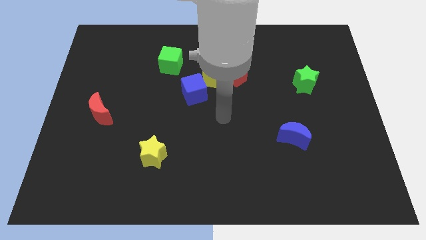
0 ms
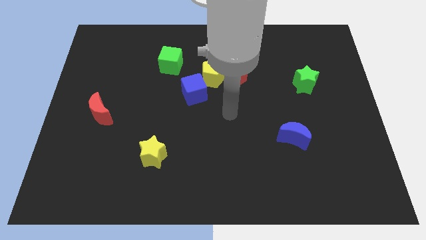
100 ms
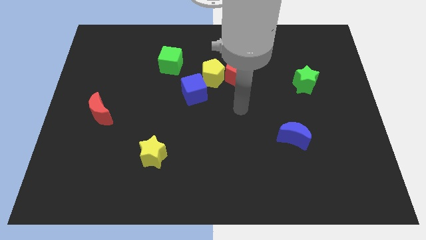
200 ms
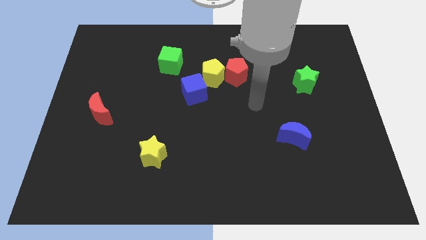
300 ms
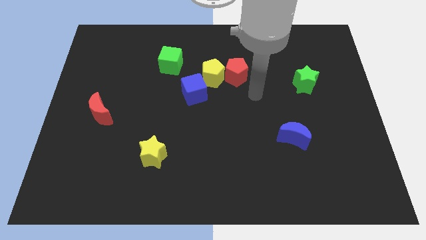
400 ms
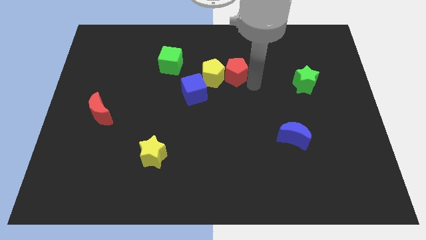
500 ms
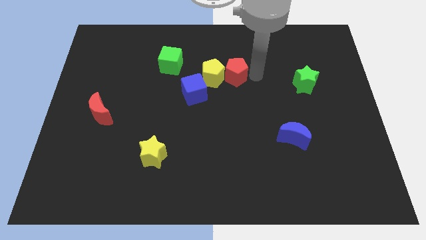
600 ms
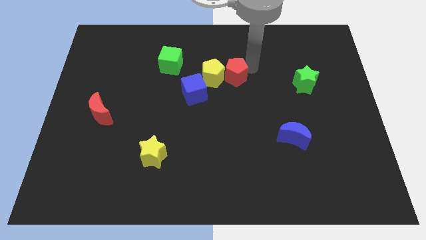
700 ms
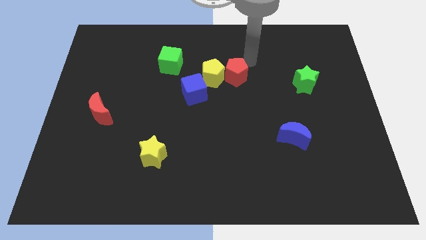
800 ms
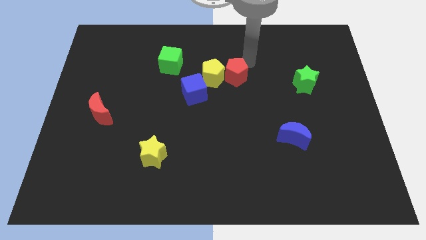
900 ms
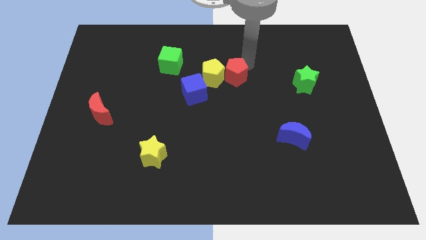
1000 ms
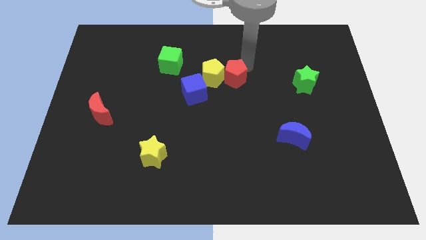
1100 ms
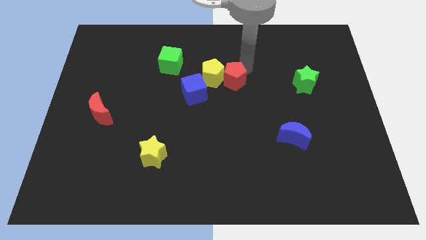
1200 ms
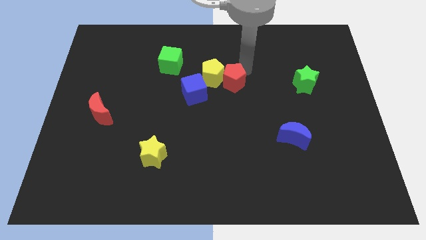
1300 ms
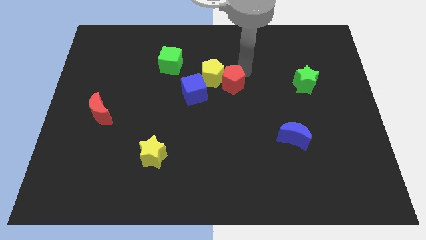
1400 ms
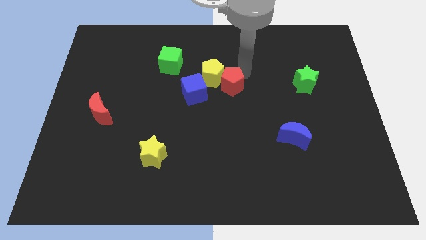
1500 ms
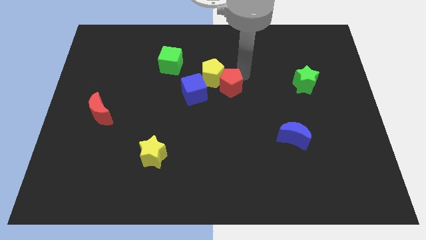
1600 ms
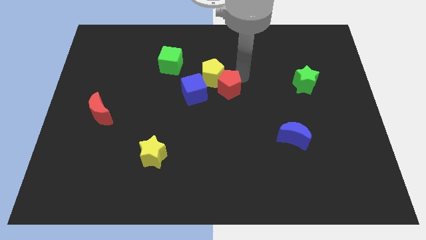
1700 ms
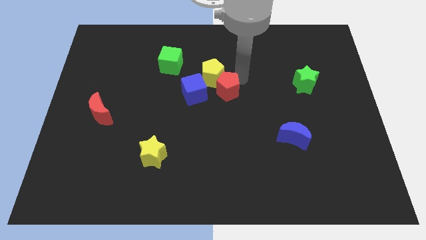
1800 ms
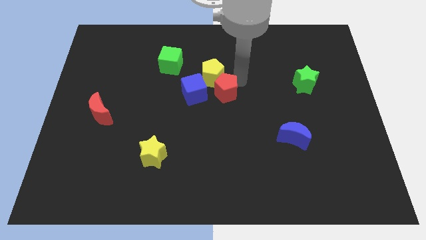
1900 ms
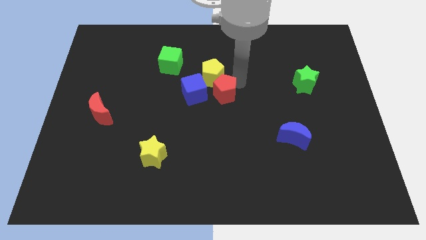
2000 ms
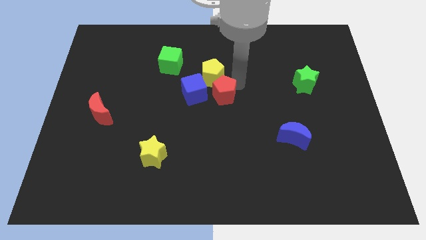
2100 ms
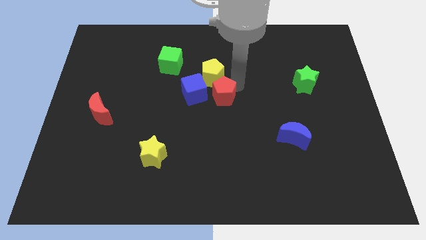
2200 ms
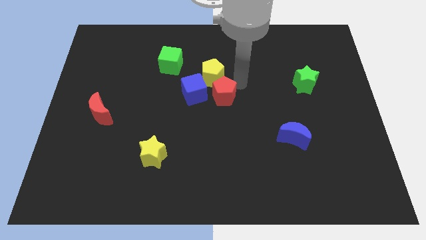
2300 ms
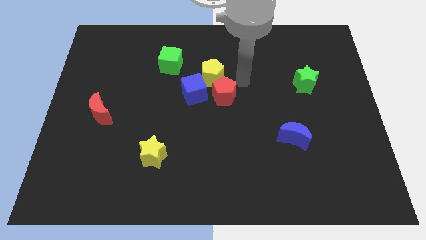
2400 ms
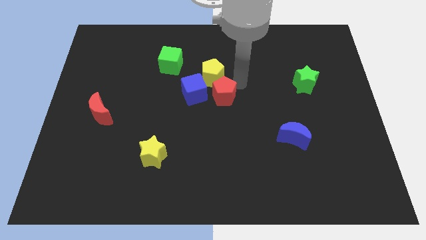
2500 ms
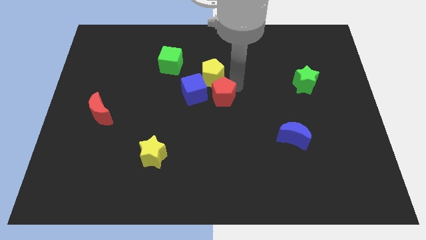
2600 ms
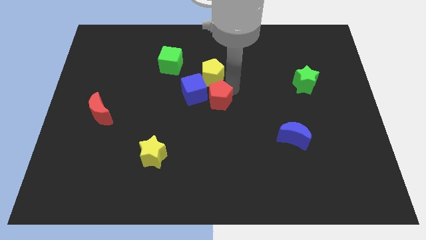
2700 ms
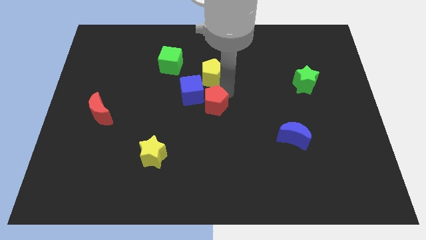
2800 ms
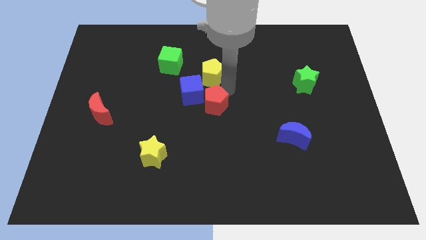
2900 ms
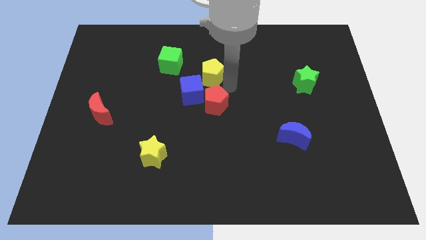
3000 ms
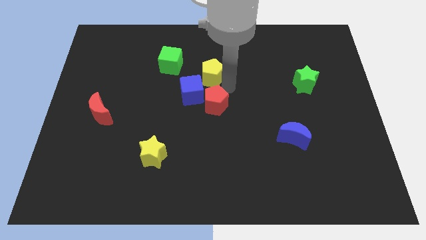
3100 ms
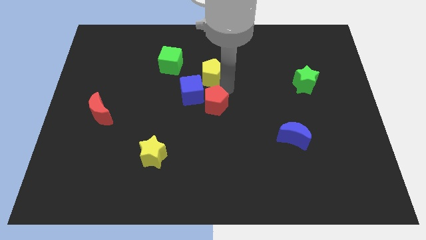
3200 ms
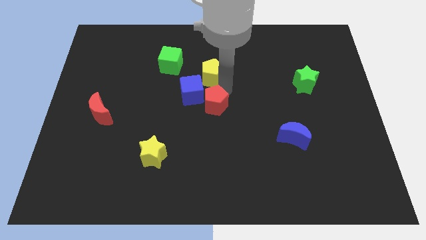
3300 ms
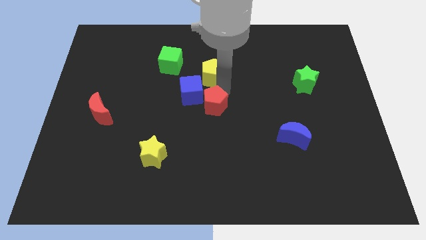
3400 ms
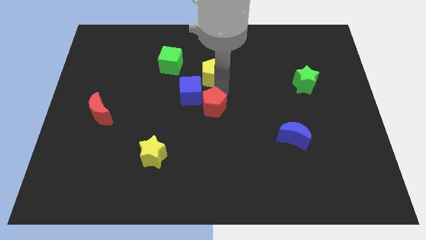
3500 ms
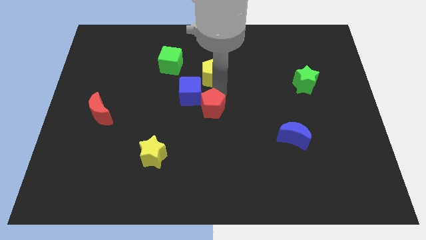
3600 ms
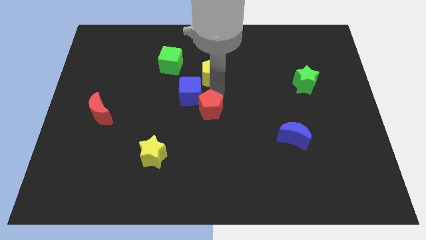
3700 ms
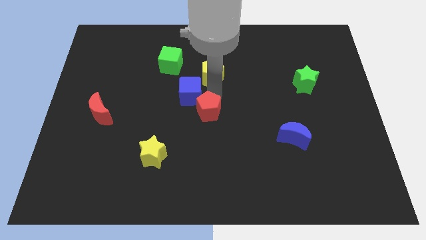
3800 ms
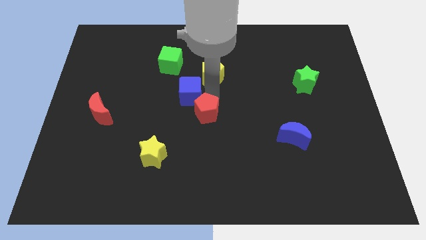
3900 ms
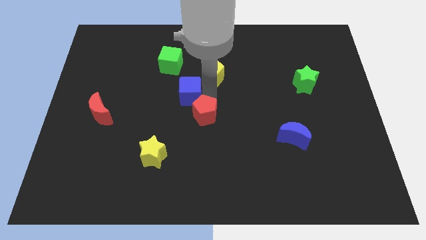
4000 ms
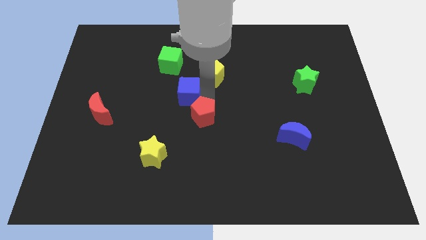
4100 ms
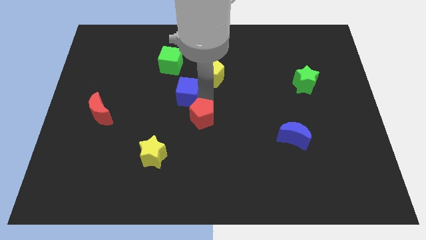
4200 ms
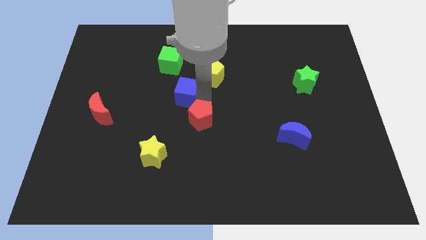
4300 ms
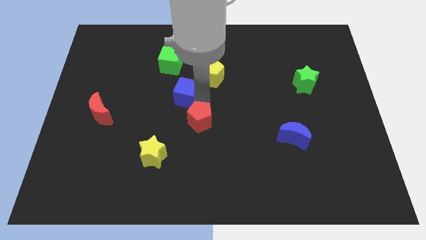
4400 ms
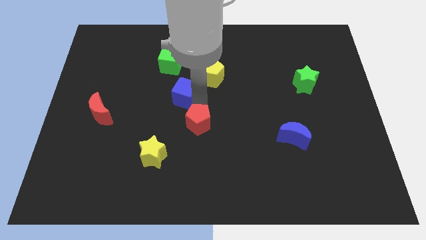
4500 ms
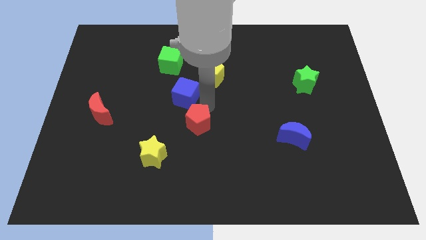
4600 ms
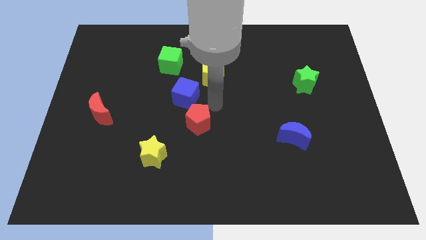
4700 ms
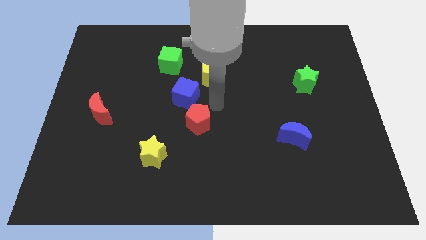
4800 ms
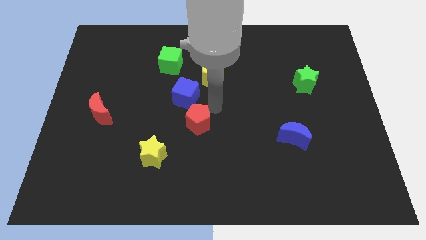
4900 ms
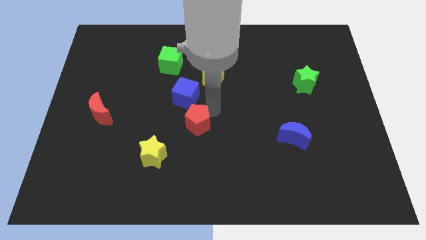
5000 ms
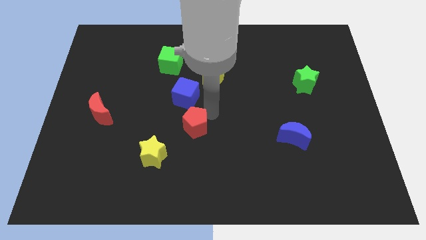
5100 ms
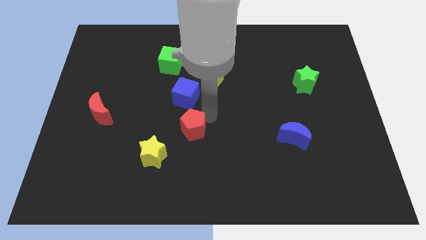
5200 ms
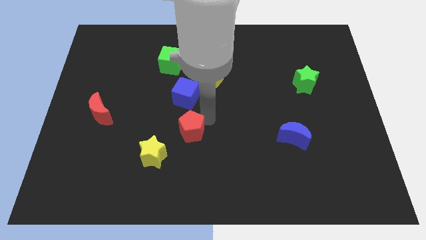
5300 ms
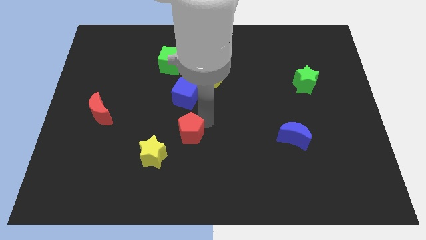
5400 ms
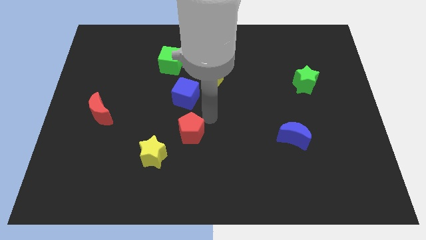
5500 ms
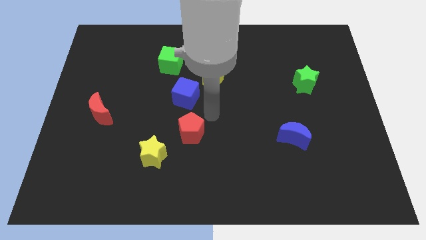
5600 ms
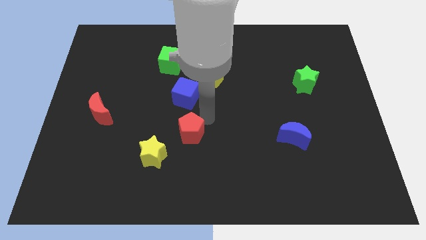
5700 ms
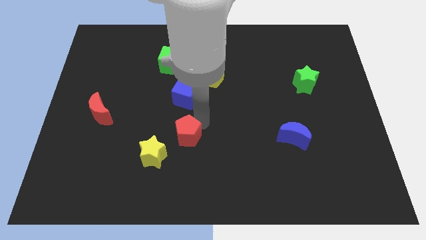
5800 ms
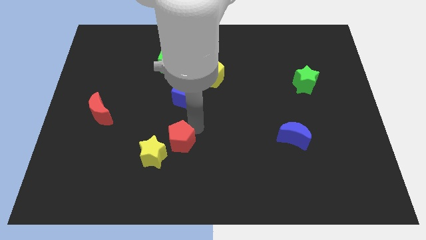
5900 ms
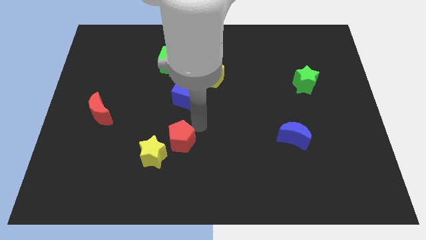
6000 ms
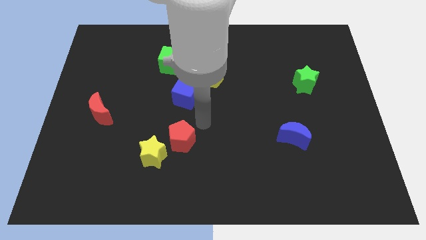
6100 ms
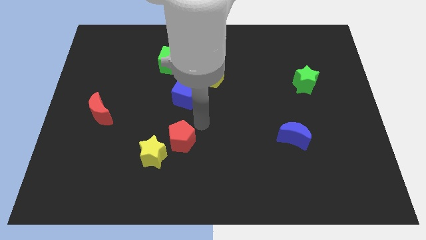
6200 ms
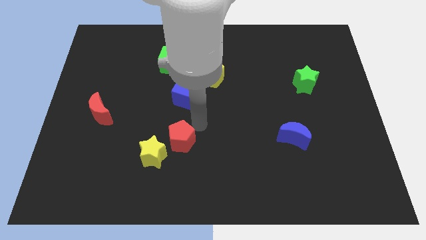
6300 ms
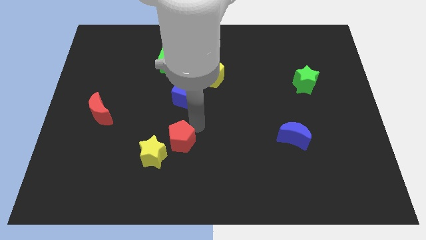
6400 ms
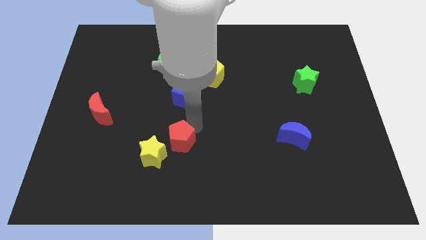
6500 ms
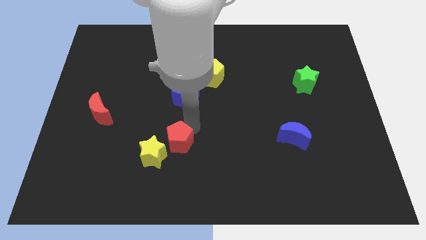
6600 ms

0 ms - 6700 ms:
put the red pentagon towards the yellow star

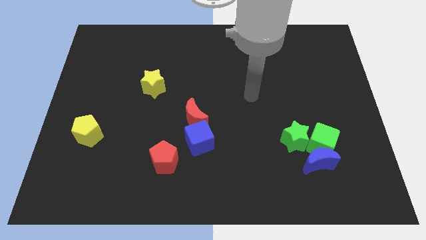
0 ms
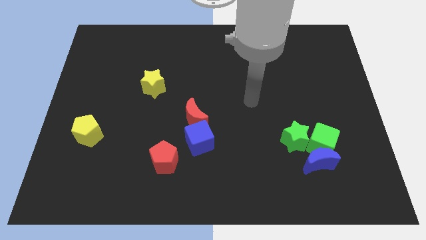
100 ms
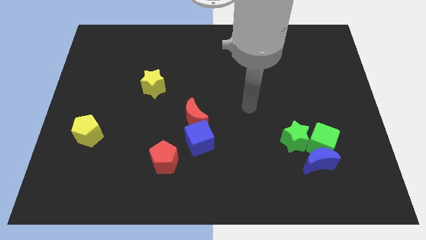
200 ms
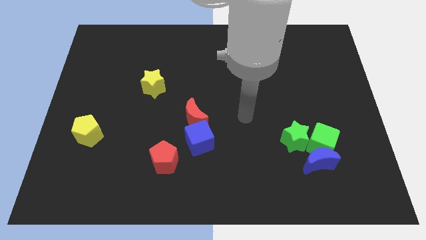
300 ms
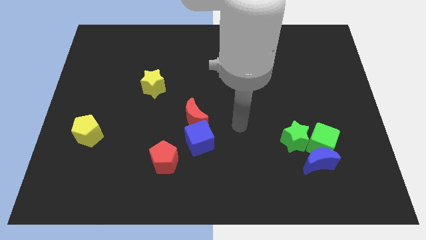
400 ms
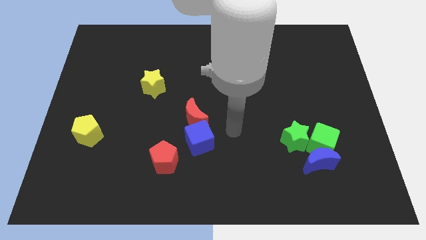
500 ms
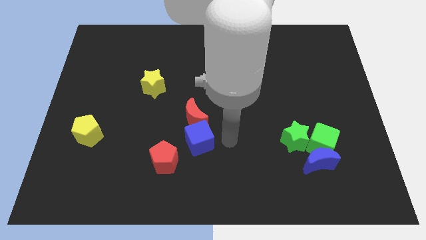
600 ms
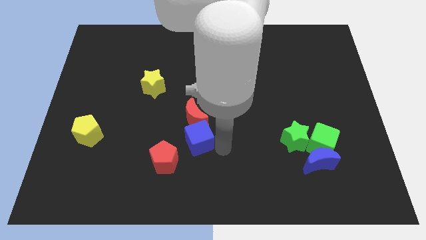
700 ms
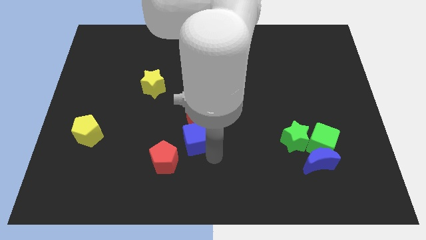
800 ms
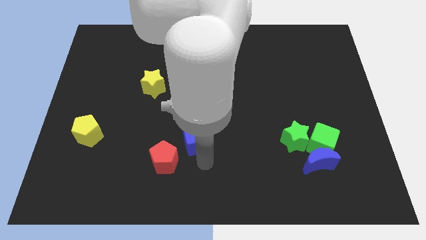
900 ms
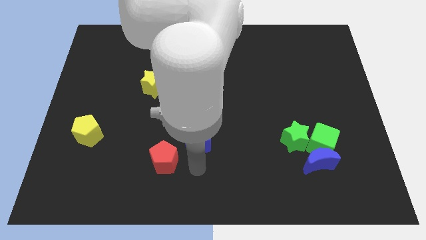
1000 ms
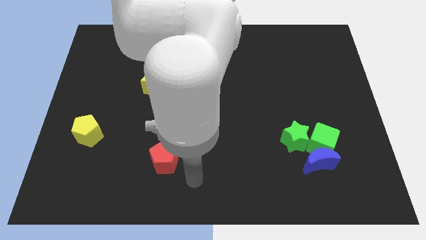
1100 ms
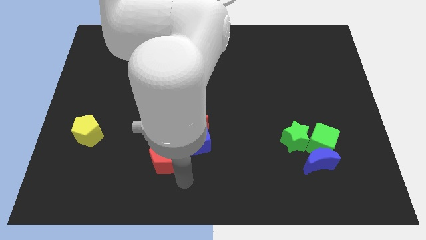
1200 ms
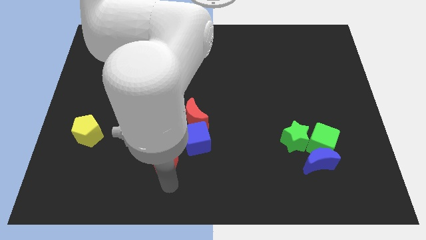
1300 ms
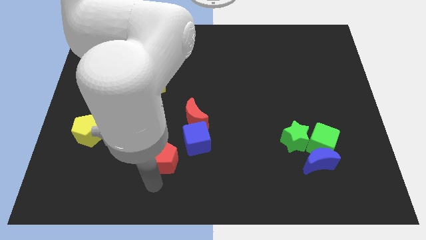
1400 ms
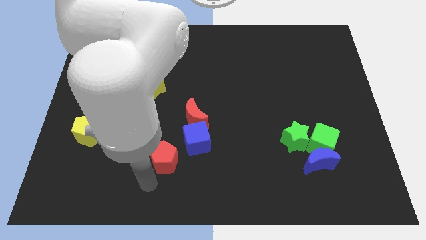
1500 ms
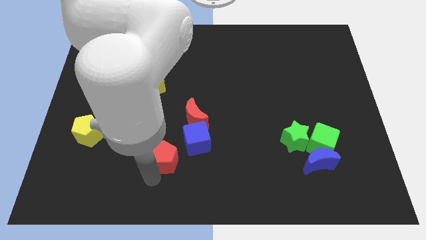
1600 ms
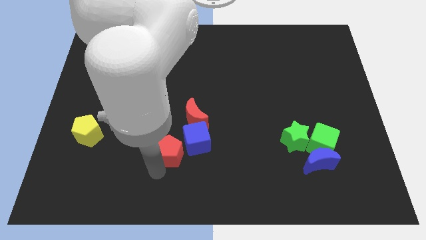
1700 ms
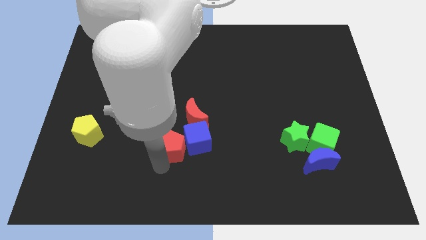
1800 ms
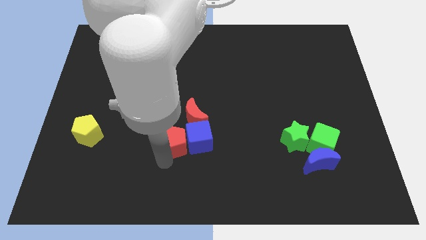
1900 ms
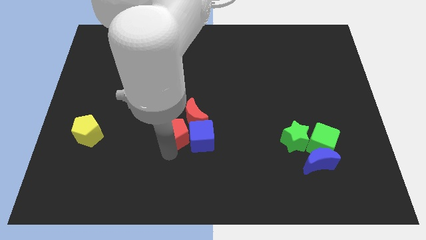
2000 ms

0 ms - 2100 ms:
push the red pentagon close to the red moon
